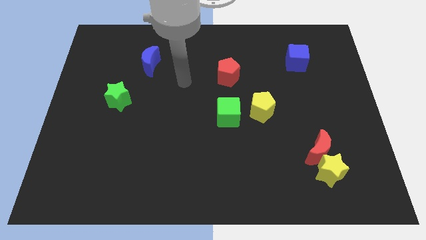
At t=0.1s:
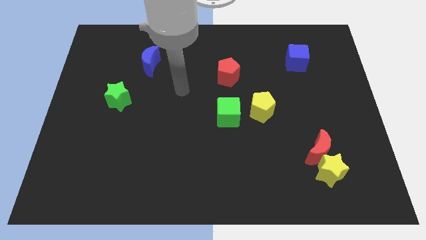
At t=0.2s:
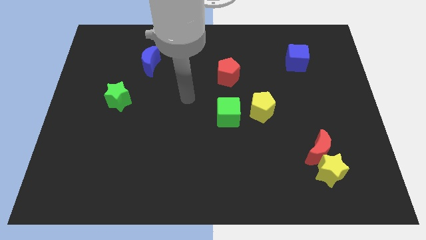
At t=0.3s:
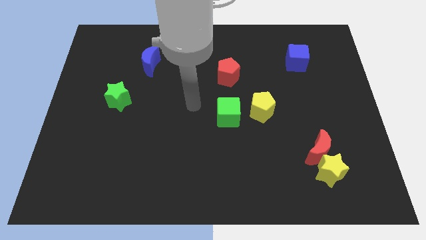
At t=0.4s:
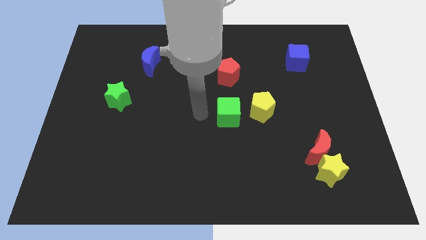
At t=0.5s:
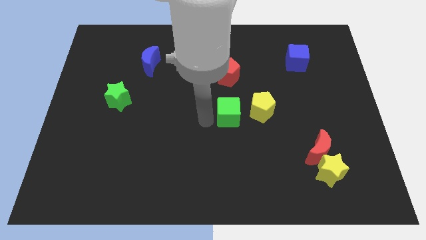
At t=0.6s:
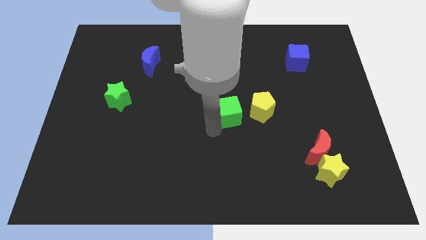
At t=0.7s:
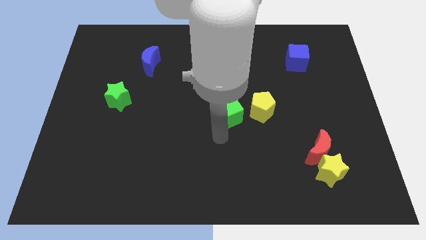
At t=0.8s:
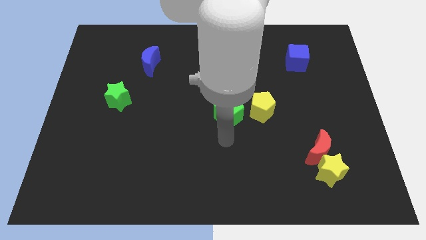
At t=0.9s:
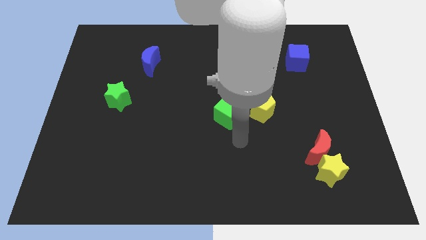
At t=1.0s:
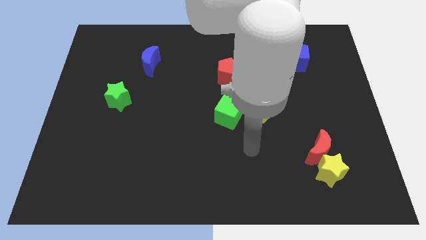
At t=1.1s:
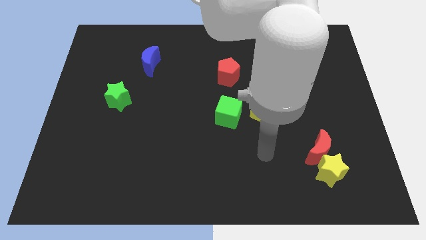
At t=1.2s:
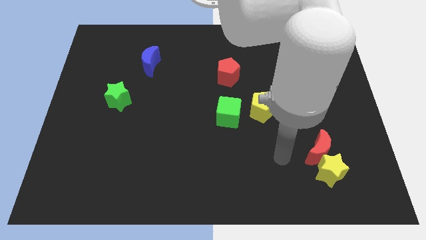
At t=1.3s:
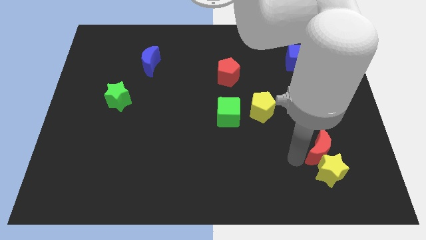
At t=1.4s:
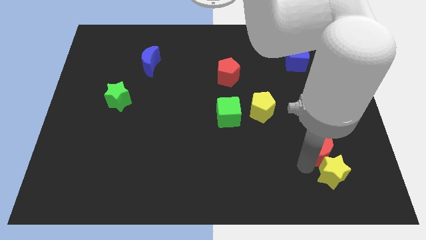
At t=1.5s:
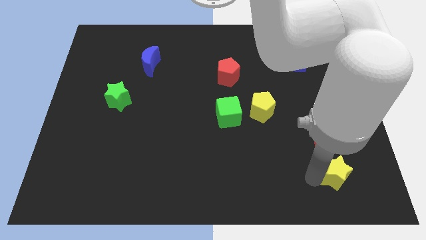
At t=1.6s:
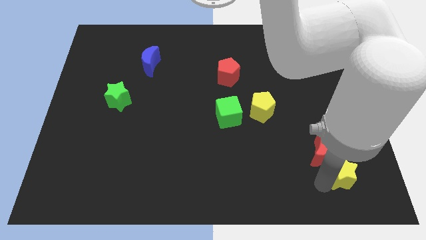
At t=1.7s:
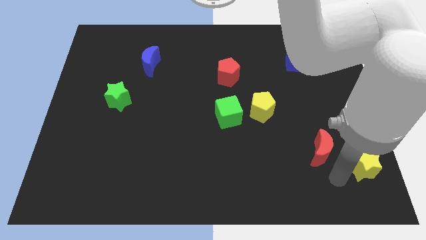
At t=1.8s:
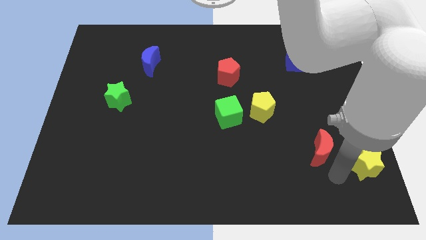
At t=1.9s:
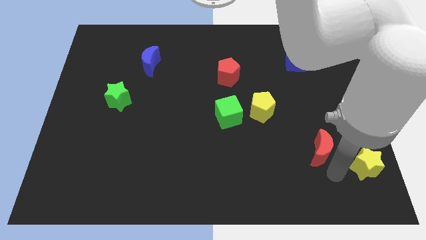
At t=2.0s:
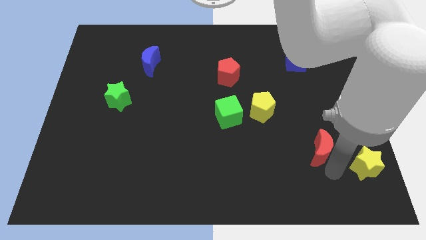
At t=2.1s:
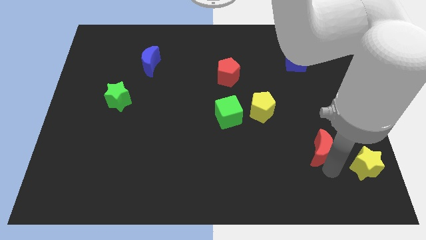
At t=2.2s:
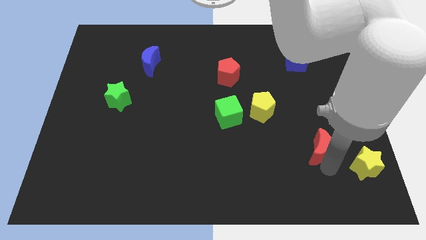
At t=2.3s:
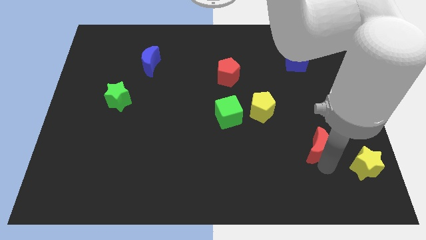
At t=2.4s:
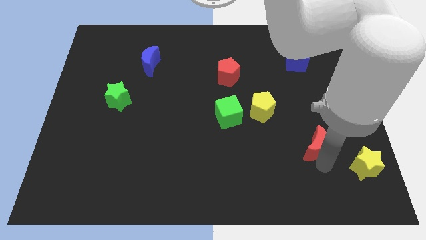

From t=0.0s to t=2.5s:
pull the red moon apart from the yellow star

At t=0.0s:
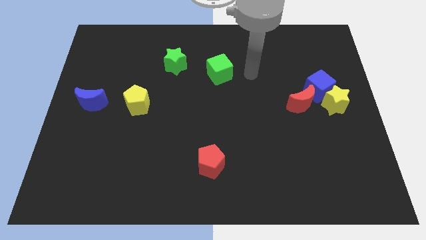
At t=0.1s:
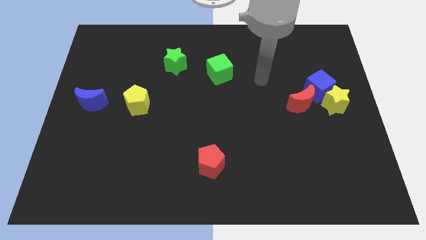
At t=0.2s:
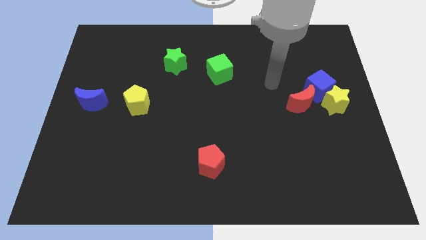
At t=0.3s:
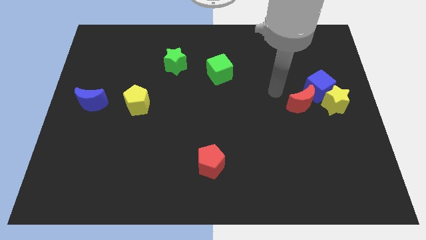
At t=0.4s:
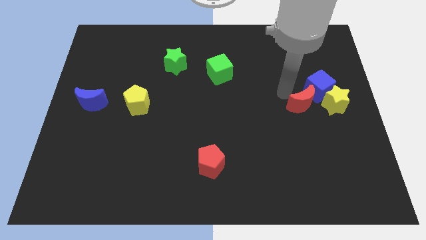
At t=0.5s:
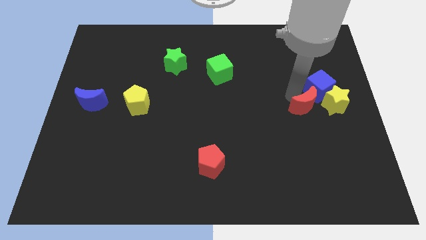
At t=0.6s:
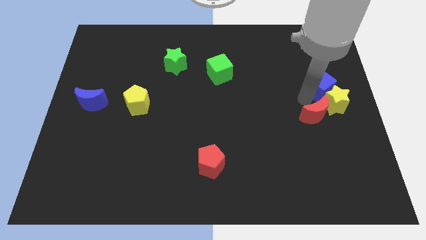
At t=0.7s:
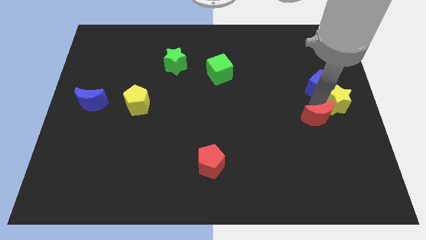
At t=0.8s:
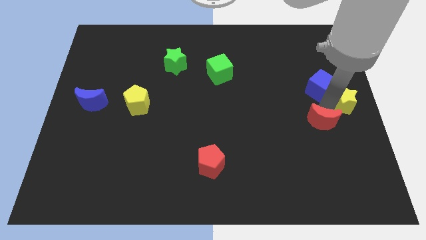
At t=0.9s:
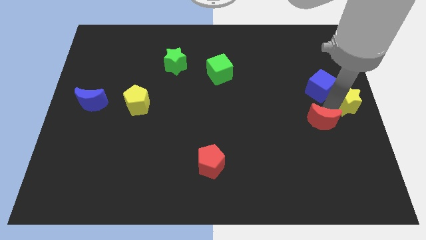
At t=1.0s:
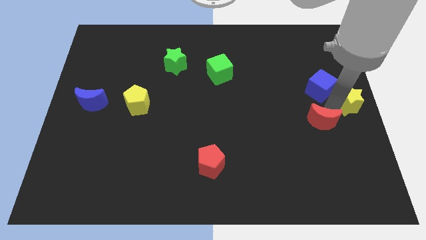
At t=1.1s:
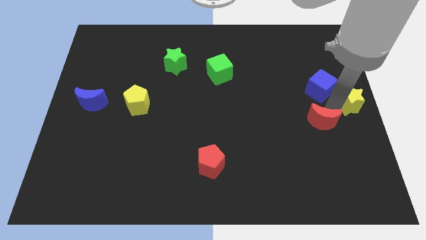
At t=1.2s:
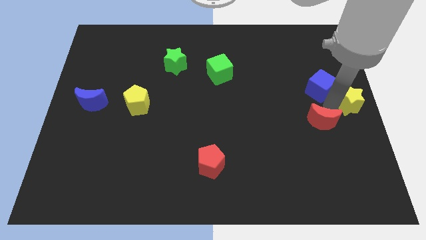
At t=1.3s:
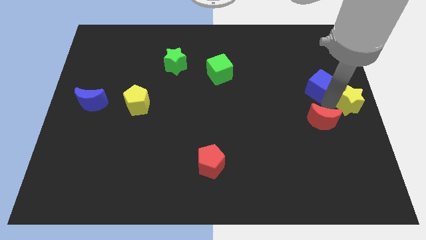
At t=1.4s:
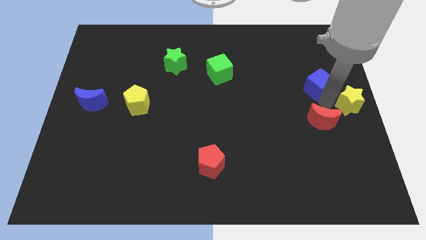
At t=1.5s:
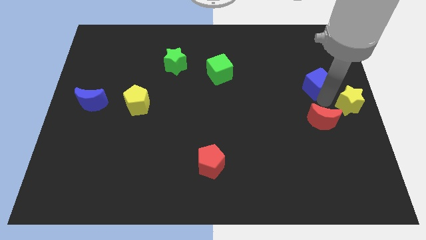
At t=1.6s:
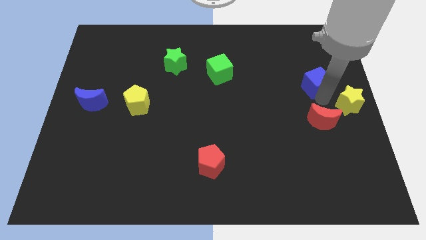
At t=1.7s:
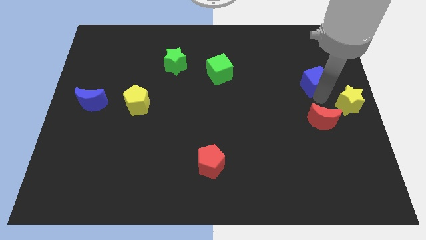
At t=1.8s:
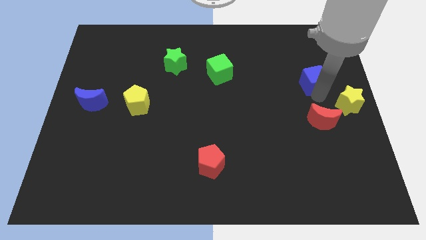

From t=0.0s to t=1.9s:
move the blue cube away from the yellow star and red moon

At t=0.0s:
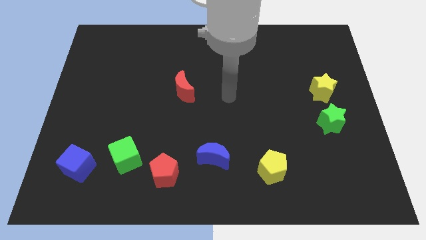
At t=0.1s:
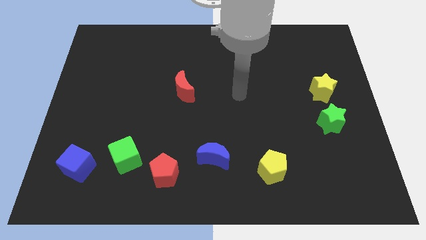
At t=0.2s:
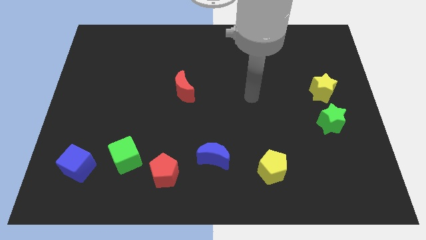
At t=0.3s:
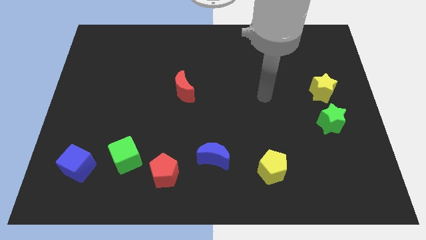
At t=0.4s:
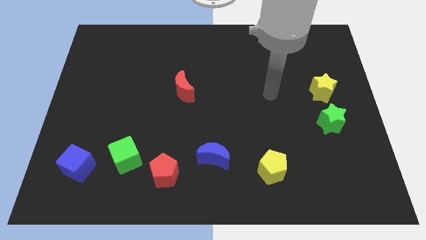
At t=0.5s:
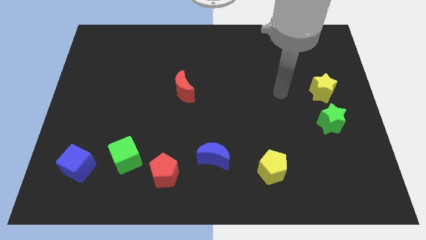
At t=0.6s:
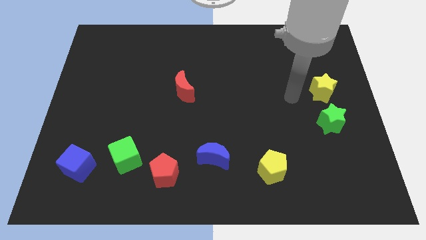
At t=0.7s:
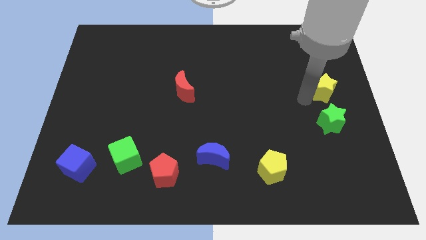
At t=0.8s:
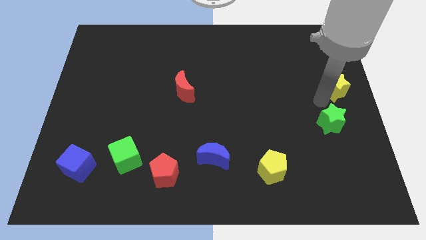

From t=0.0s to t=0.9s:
separate the green star from the yellow star

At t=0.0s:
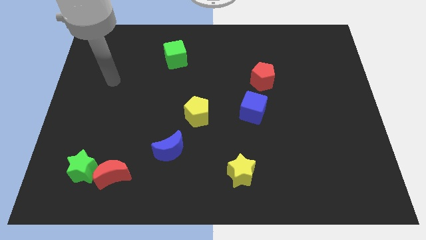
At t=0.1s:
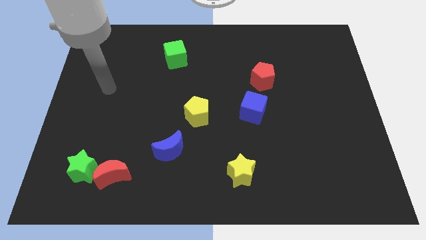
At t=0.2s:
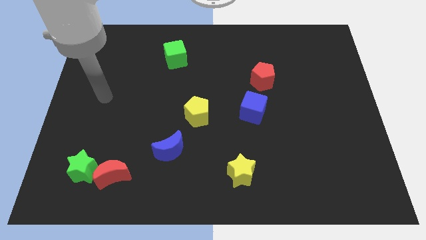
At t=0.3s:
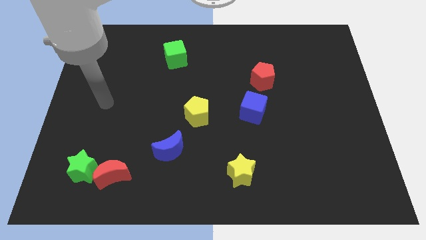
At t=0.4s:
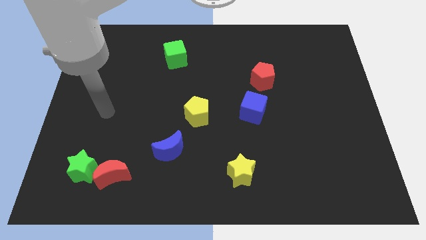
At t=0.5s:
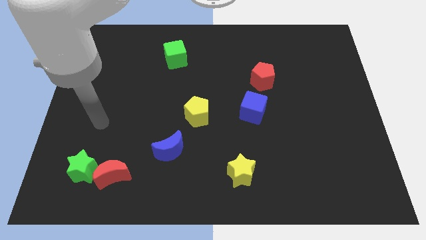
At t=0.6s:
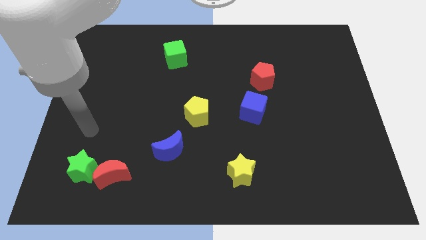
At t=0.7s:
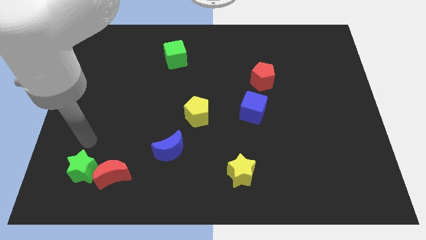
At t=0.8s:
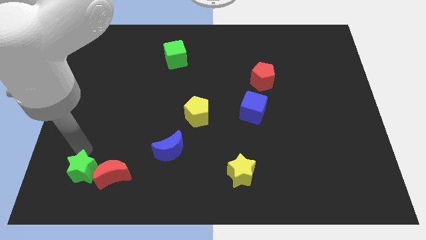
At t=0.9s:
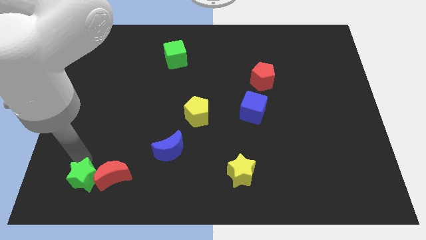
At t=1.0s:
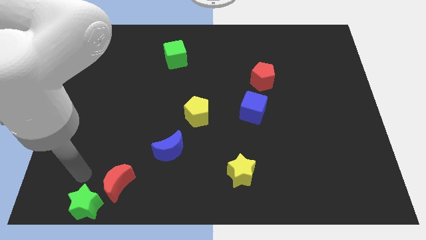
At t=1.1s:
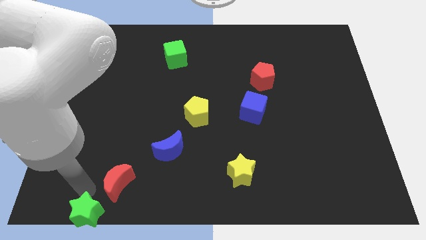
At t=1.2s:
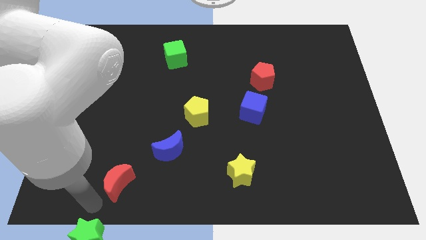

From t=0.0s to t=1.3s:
separate the red moon from the green star

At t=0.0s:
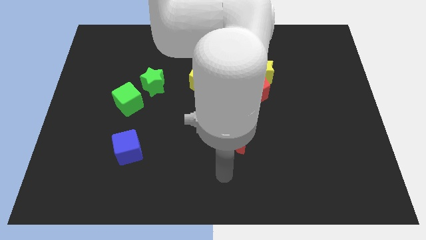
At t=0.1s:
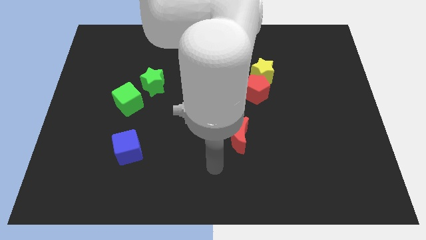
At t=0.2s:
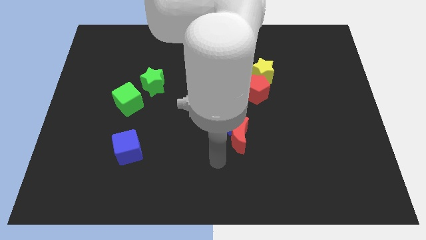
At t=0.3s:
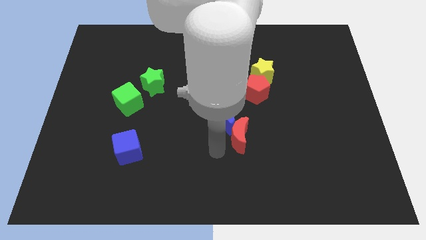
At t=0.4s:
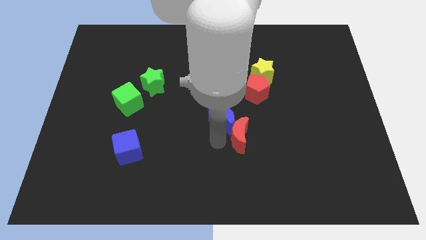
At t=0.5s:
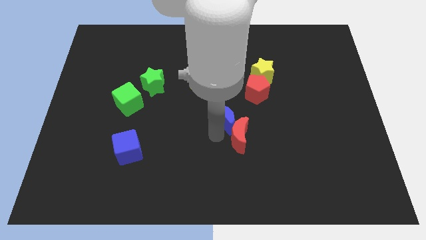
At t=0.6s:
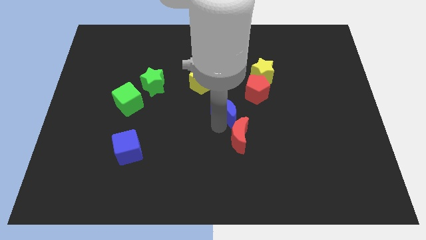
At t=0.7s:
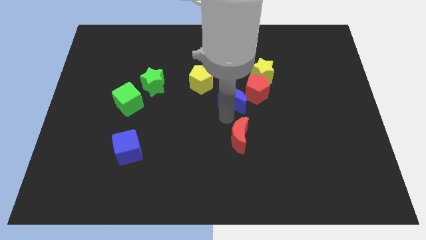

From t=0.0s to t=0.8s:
move the red moon away from the blue moon

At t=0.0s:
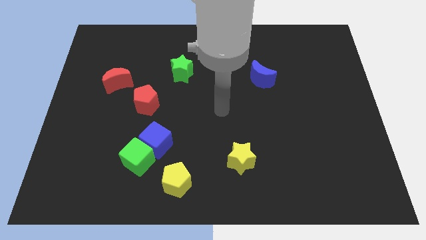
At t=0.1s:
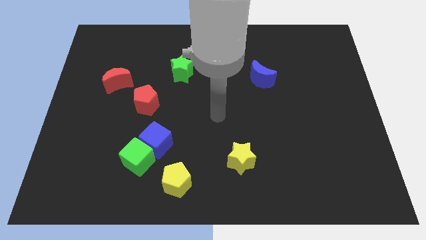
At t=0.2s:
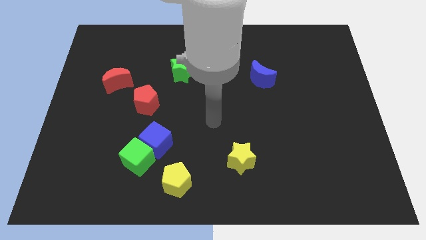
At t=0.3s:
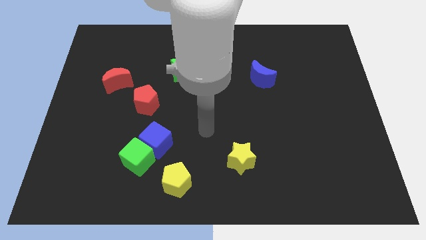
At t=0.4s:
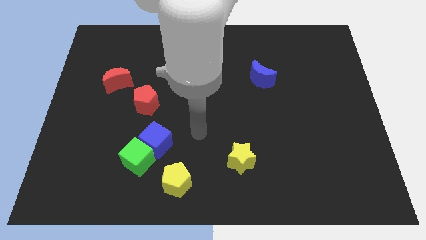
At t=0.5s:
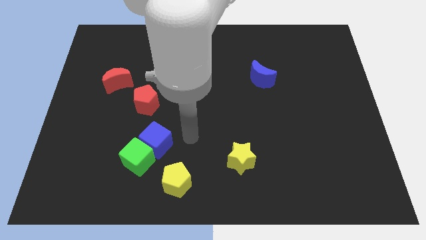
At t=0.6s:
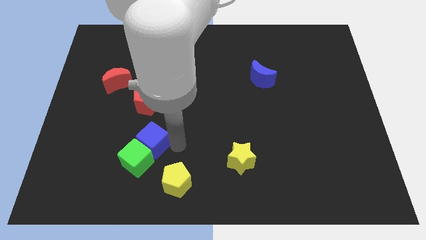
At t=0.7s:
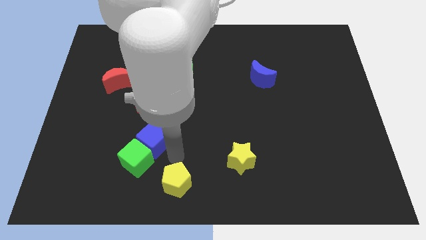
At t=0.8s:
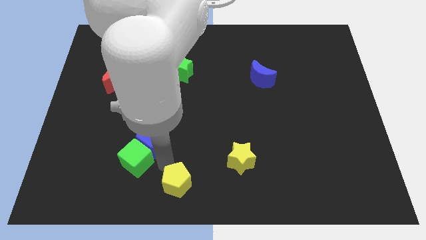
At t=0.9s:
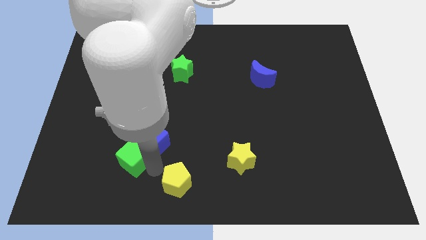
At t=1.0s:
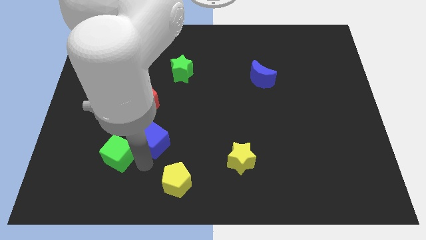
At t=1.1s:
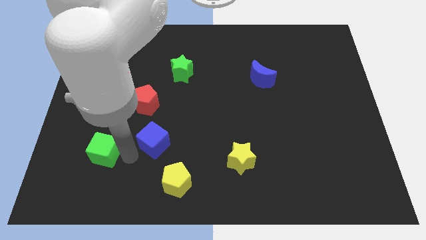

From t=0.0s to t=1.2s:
move the blue cube away from the green cube

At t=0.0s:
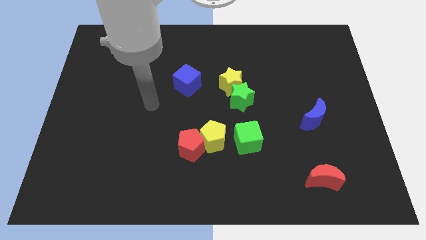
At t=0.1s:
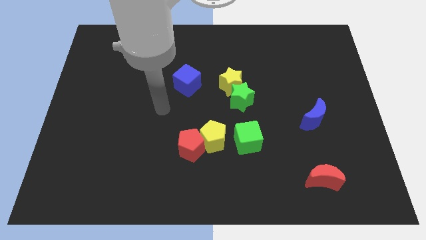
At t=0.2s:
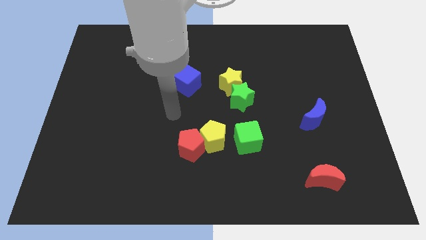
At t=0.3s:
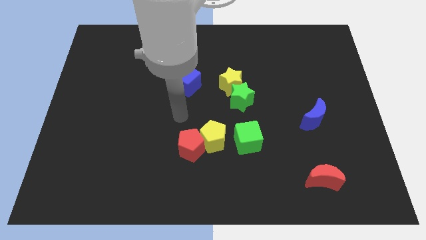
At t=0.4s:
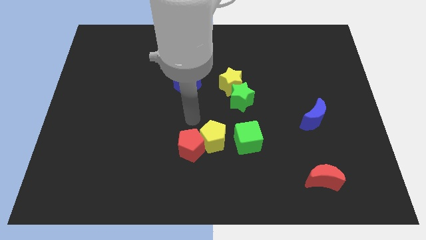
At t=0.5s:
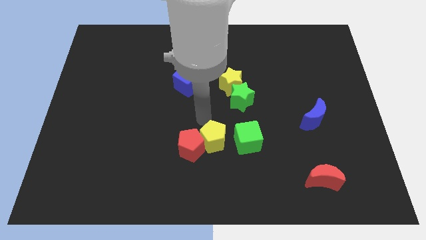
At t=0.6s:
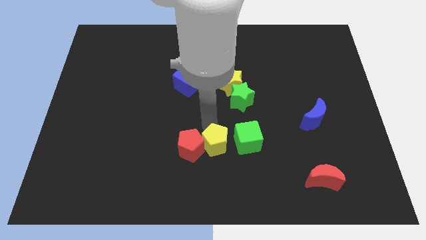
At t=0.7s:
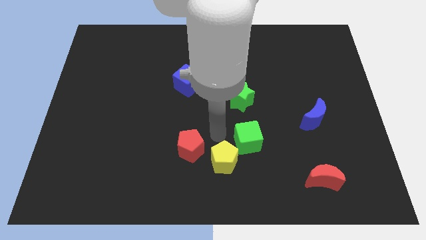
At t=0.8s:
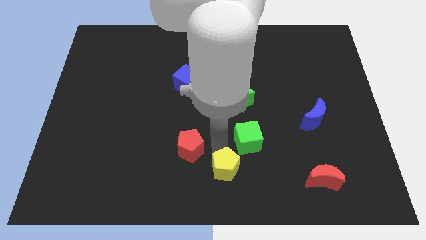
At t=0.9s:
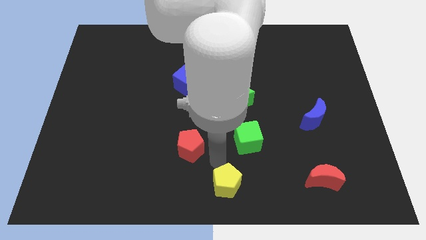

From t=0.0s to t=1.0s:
pull the red pentagon apart from the yellow pentagon
